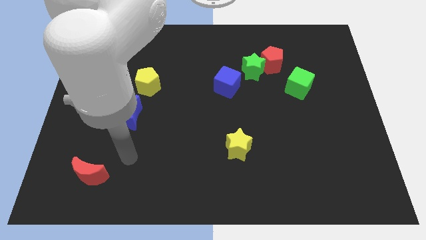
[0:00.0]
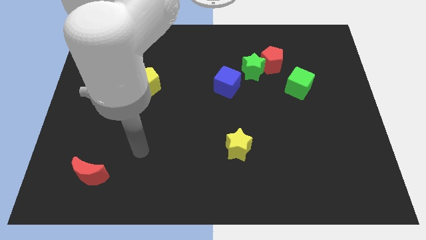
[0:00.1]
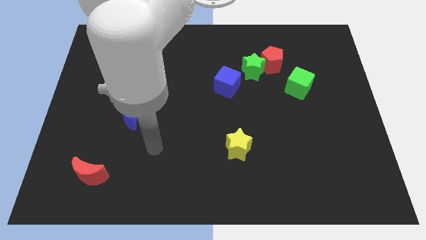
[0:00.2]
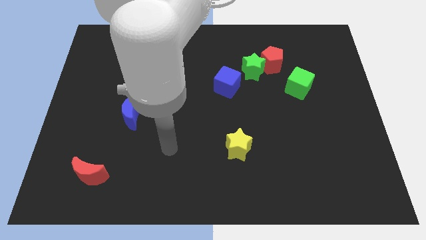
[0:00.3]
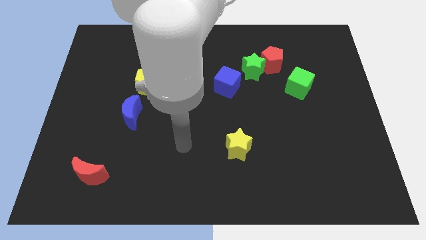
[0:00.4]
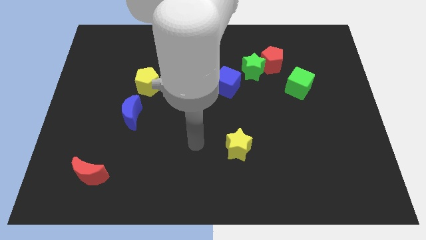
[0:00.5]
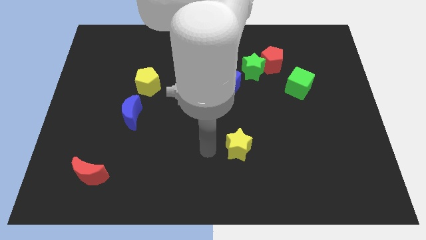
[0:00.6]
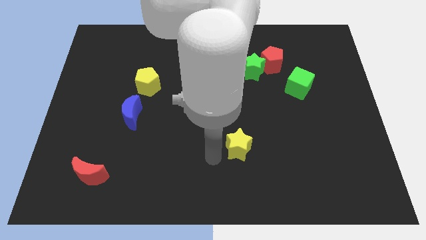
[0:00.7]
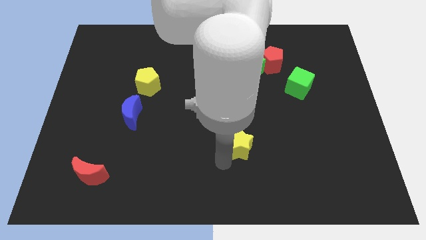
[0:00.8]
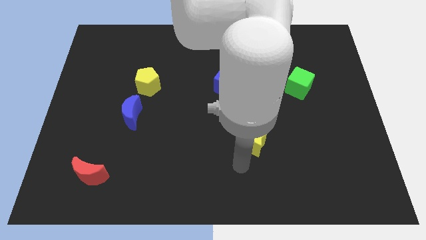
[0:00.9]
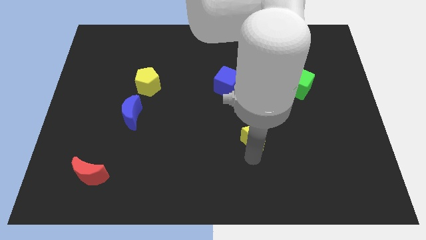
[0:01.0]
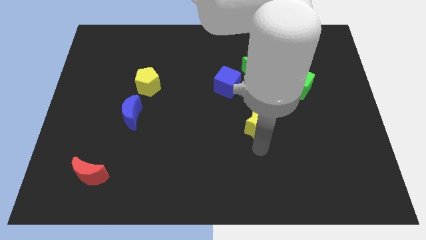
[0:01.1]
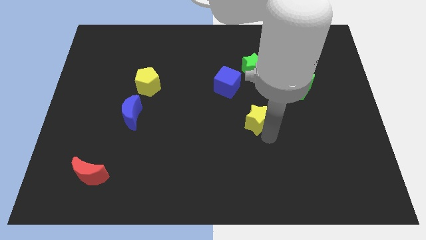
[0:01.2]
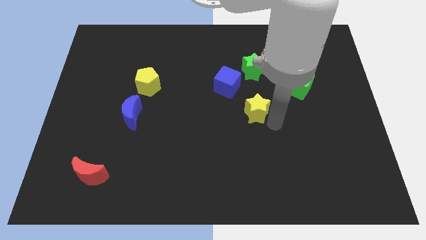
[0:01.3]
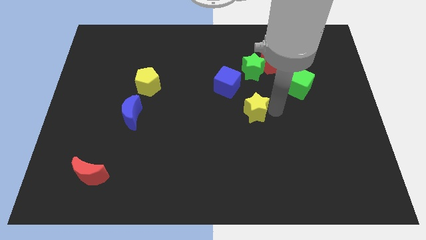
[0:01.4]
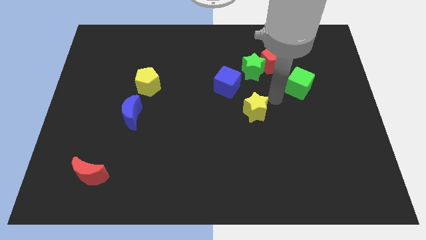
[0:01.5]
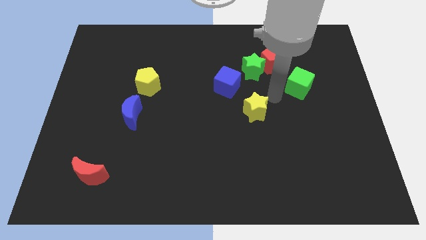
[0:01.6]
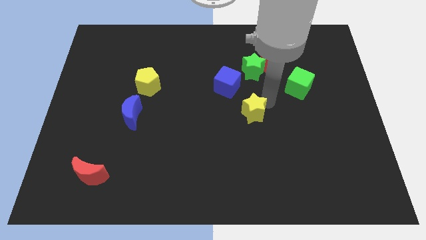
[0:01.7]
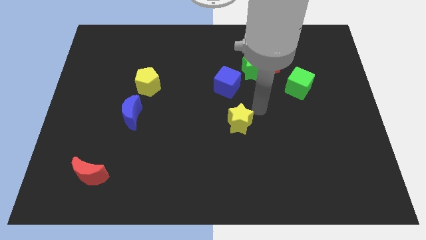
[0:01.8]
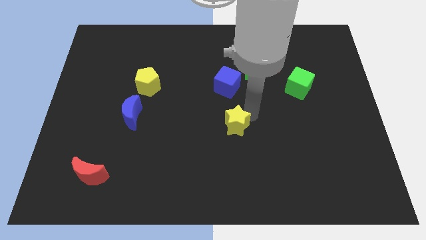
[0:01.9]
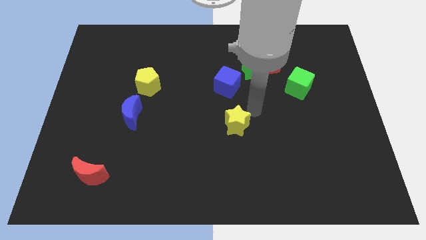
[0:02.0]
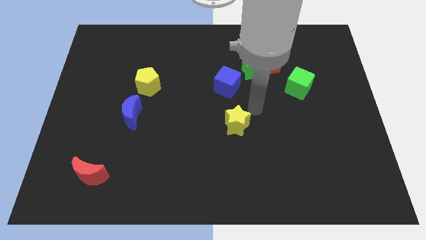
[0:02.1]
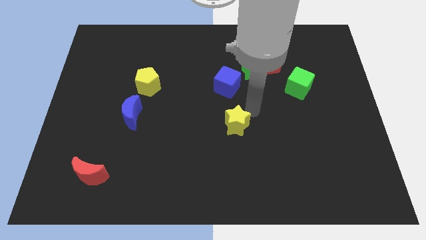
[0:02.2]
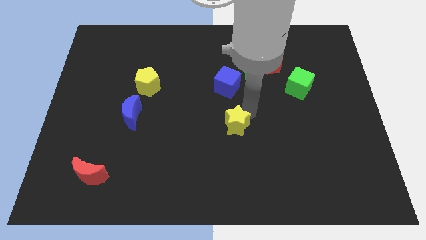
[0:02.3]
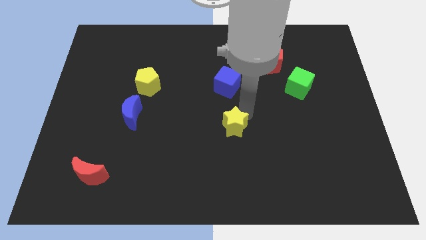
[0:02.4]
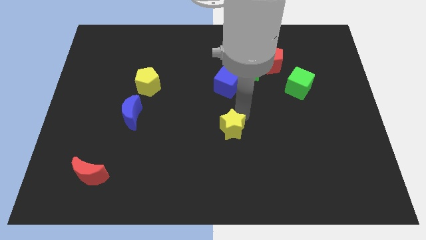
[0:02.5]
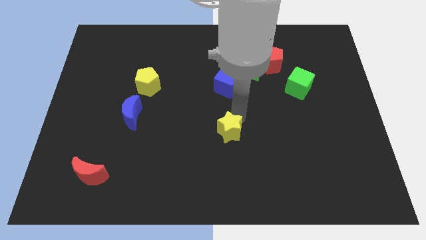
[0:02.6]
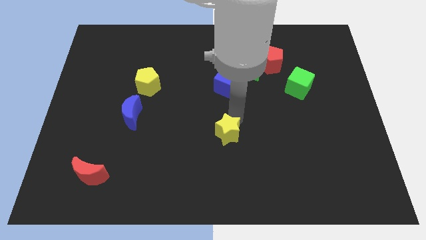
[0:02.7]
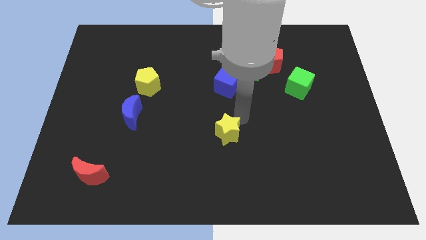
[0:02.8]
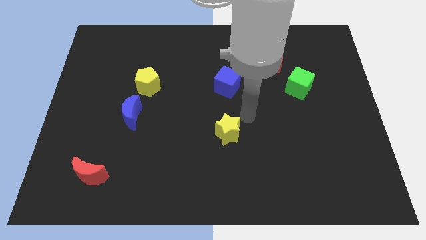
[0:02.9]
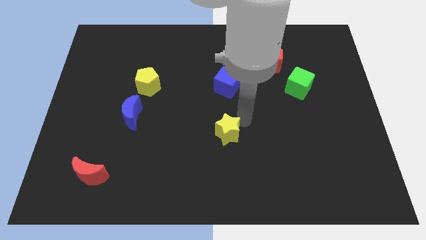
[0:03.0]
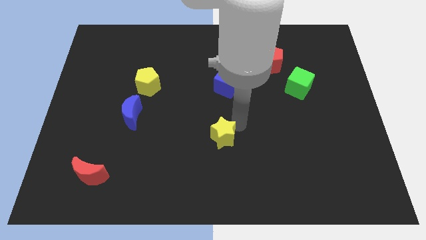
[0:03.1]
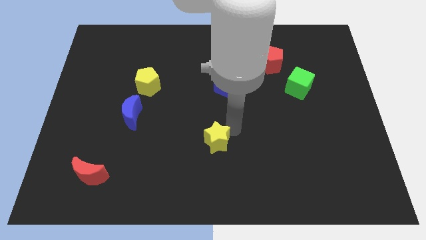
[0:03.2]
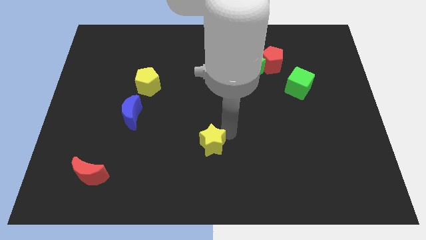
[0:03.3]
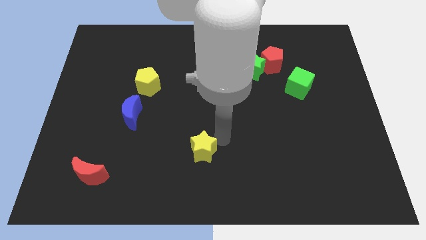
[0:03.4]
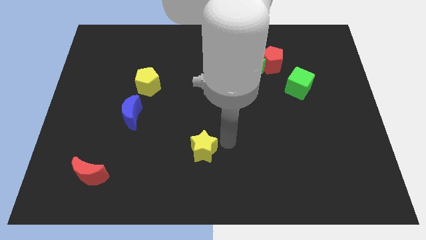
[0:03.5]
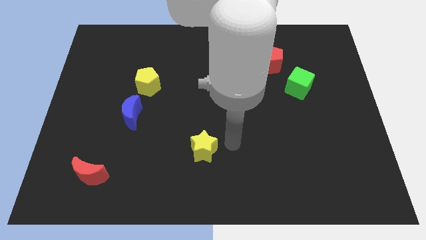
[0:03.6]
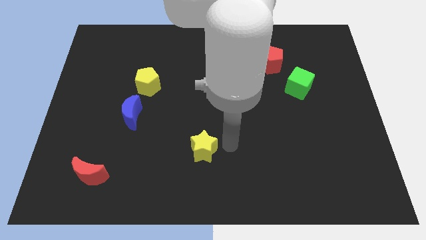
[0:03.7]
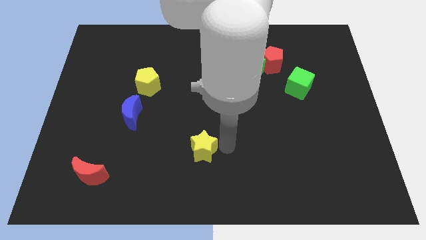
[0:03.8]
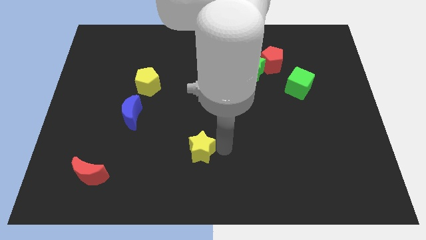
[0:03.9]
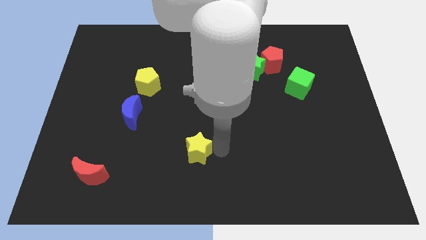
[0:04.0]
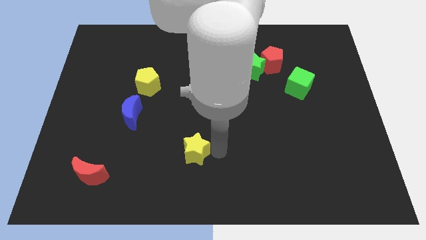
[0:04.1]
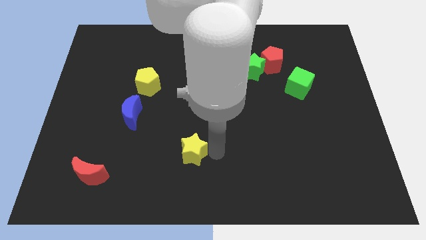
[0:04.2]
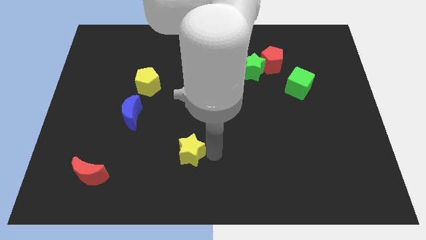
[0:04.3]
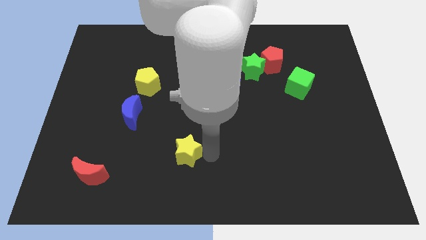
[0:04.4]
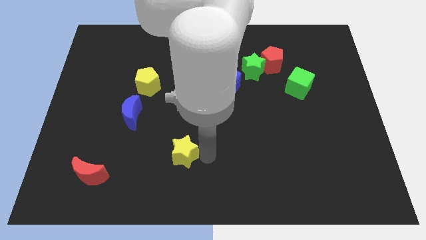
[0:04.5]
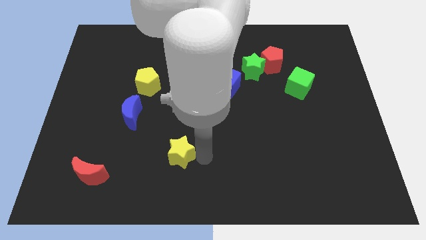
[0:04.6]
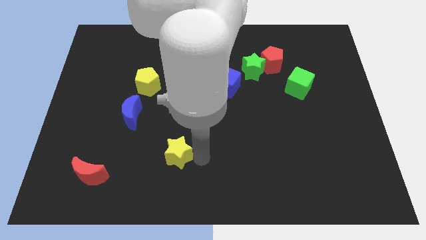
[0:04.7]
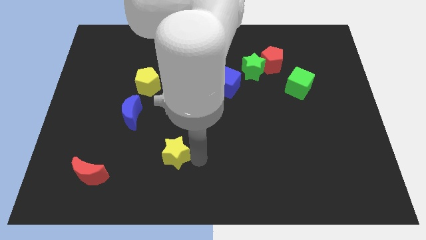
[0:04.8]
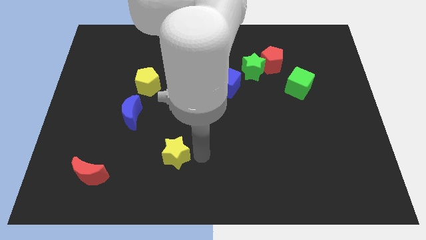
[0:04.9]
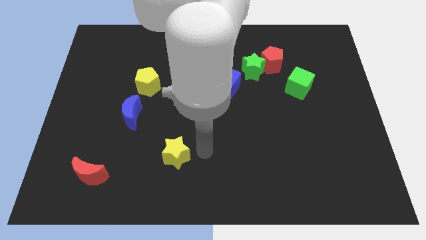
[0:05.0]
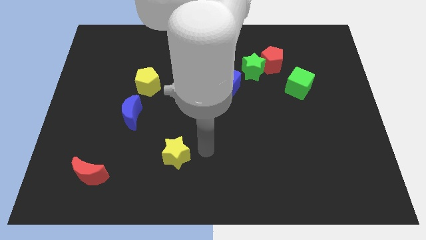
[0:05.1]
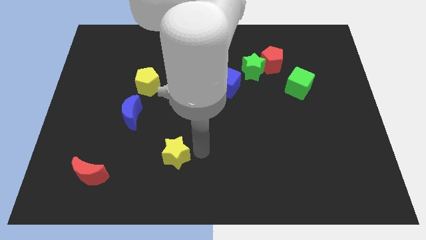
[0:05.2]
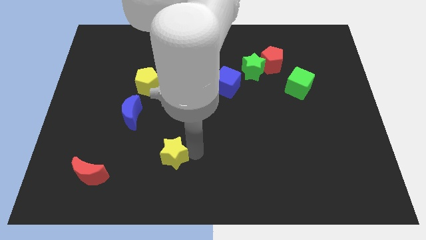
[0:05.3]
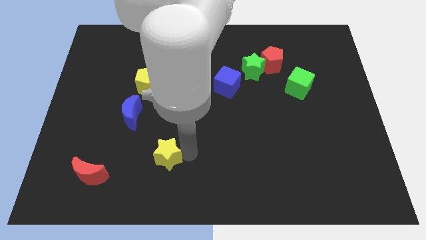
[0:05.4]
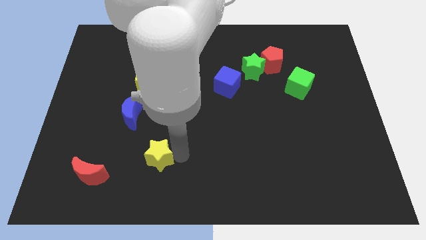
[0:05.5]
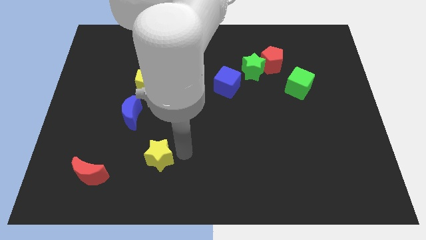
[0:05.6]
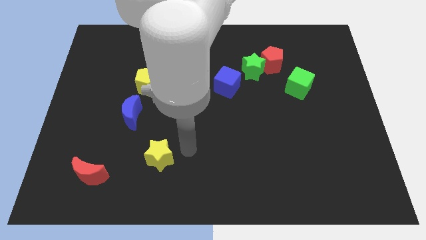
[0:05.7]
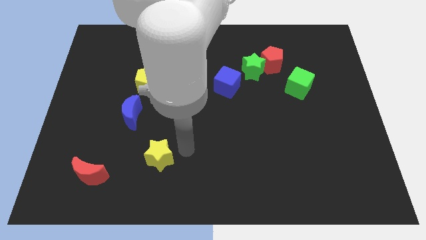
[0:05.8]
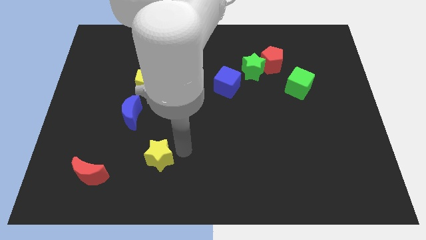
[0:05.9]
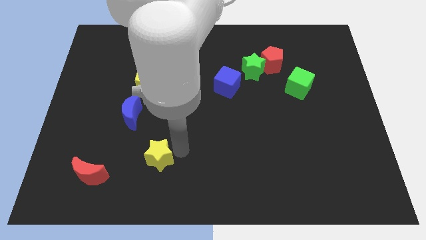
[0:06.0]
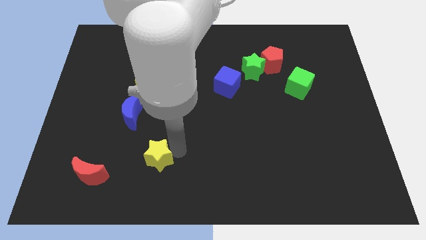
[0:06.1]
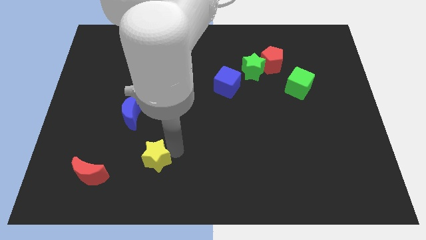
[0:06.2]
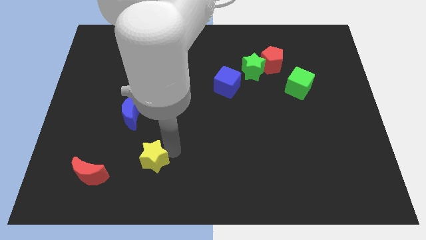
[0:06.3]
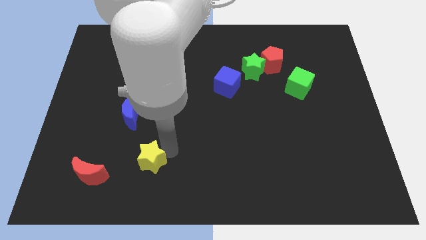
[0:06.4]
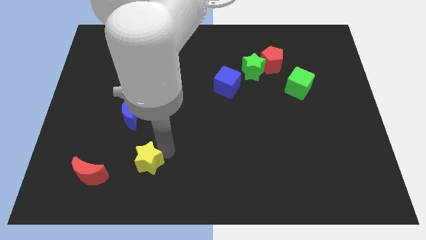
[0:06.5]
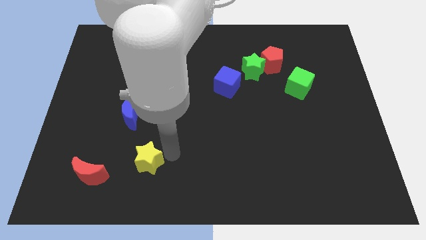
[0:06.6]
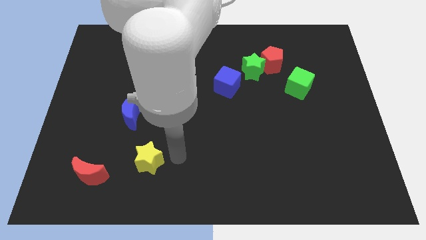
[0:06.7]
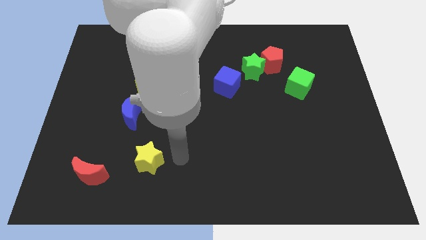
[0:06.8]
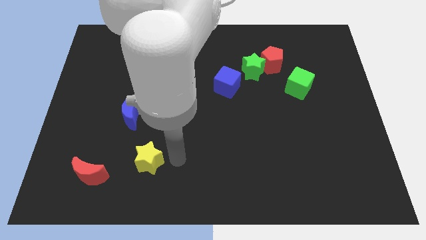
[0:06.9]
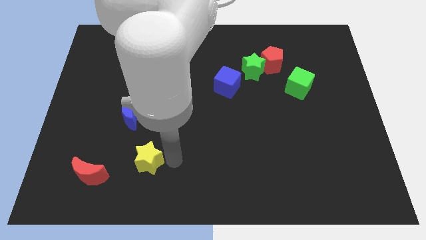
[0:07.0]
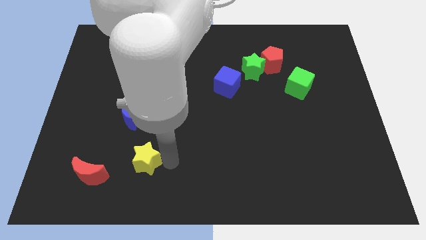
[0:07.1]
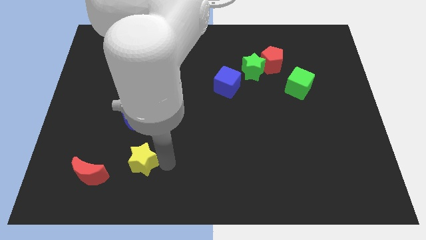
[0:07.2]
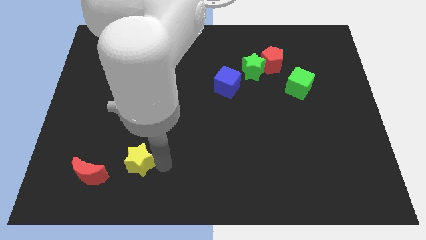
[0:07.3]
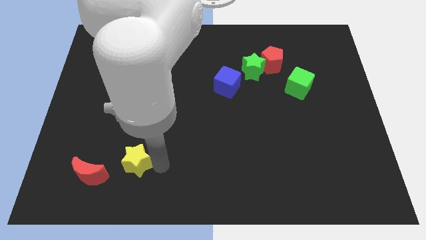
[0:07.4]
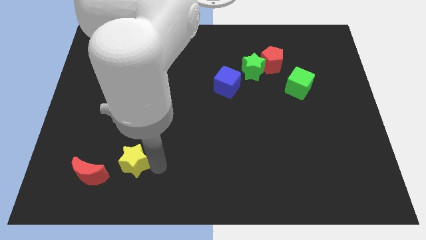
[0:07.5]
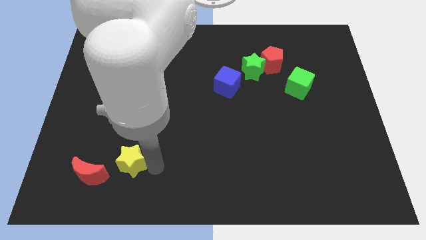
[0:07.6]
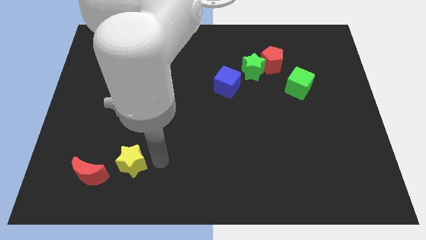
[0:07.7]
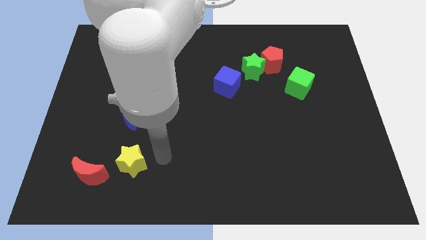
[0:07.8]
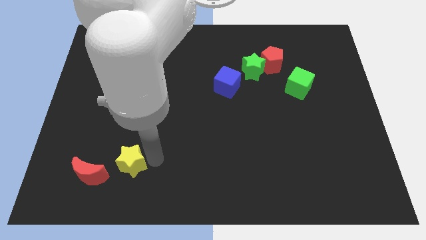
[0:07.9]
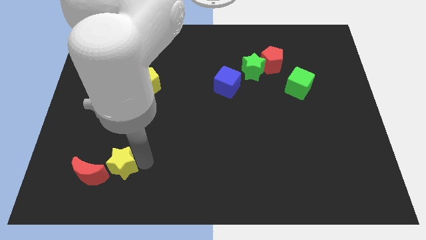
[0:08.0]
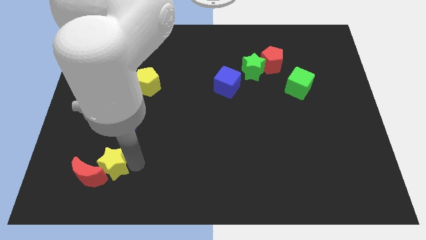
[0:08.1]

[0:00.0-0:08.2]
move the yellow star close to the red moon
